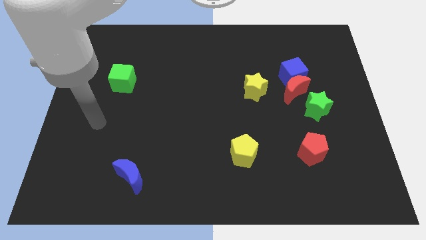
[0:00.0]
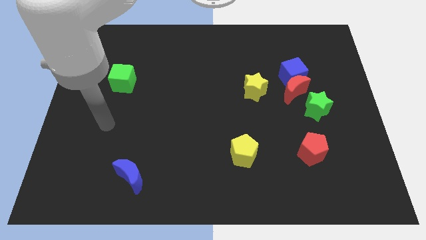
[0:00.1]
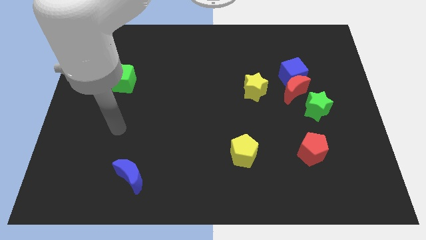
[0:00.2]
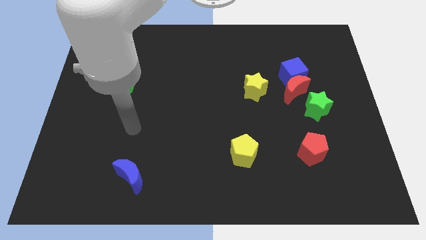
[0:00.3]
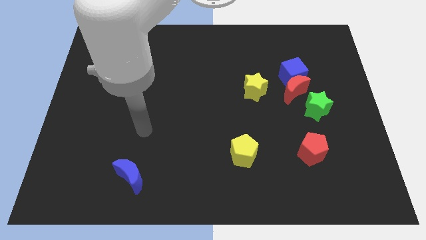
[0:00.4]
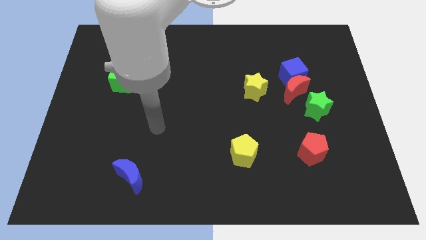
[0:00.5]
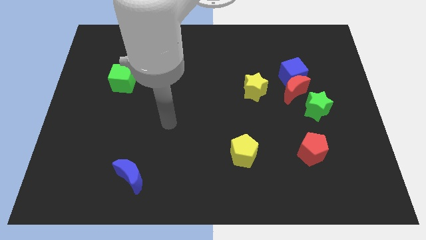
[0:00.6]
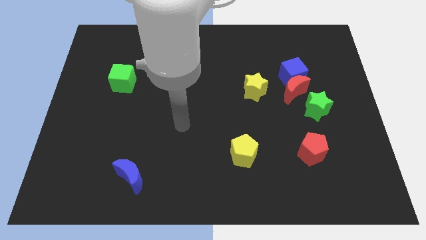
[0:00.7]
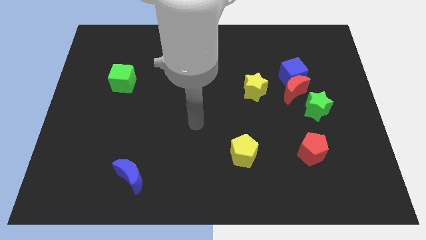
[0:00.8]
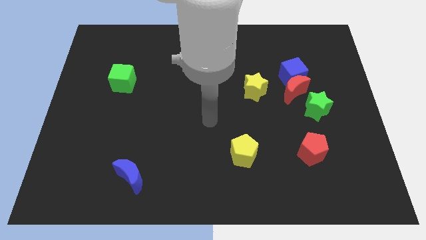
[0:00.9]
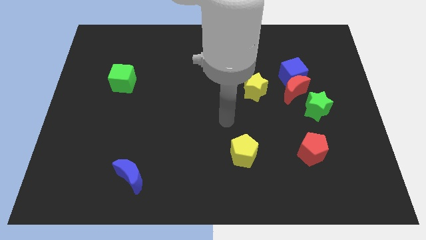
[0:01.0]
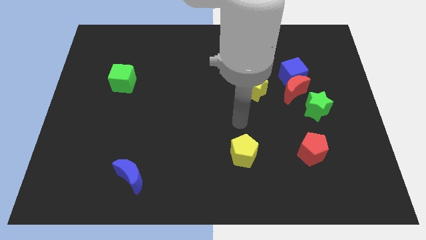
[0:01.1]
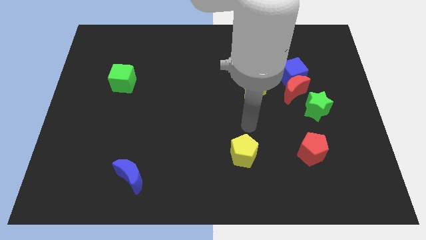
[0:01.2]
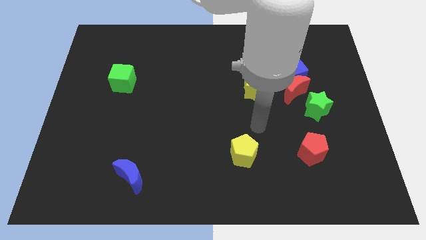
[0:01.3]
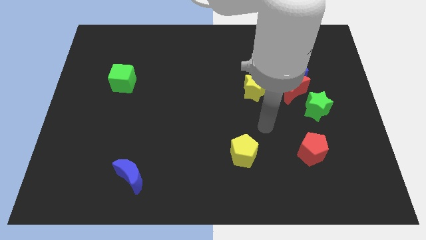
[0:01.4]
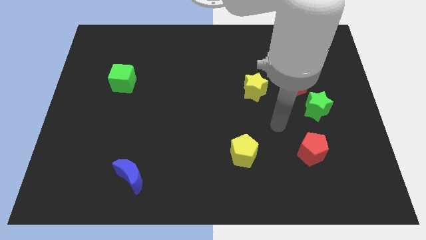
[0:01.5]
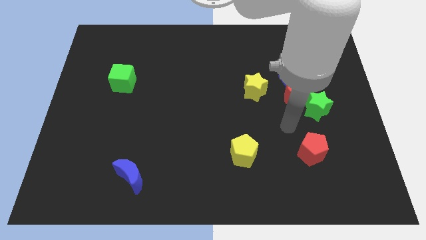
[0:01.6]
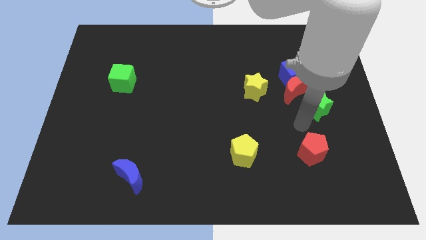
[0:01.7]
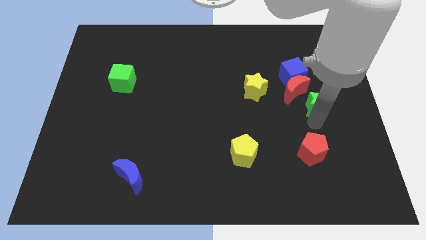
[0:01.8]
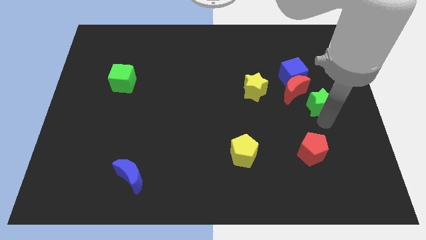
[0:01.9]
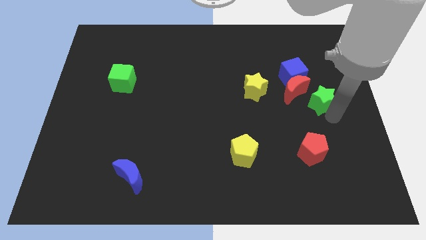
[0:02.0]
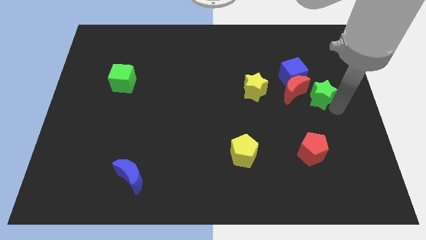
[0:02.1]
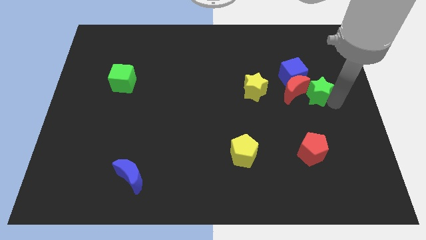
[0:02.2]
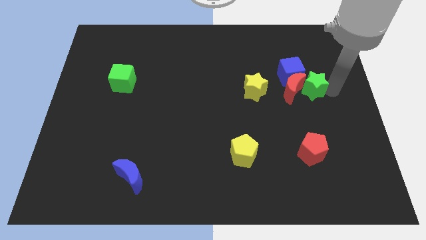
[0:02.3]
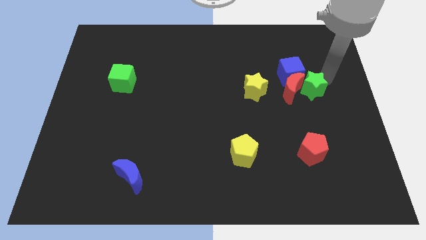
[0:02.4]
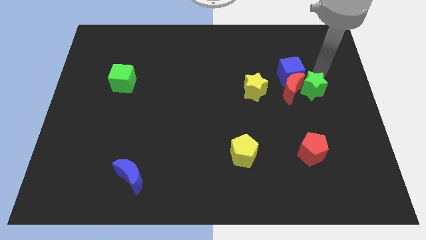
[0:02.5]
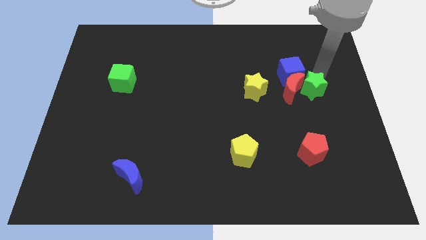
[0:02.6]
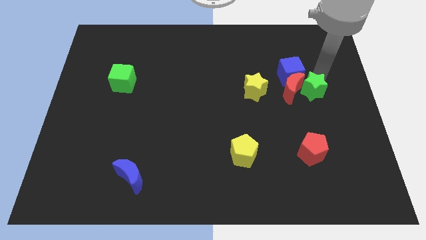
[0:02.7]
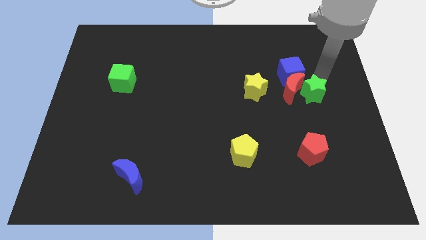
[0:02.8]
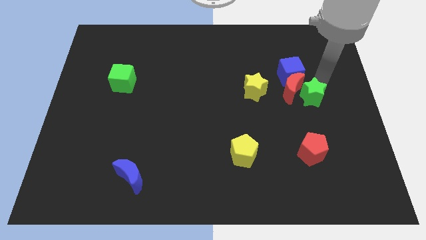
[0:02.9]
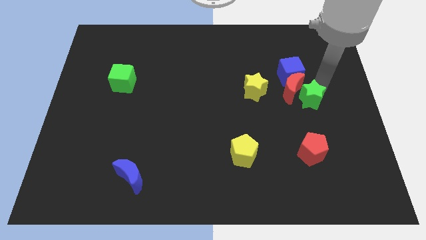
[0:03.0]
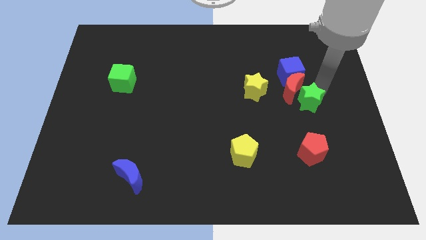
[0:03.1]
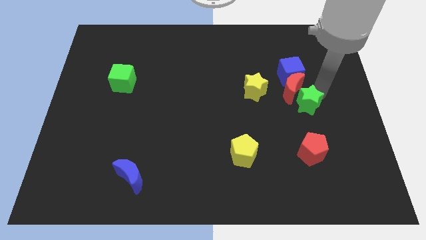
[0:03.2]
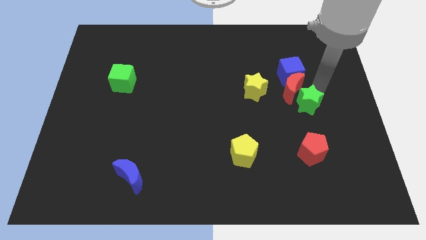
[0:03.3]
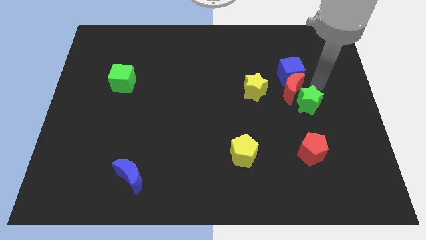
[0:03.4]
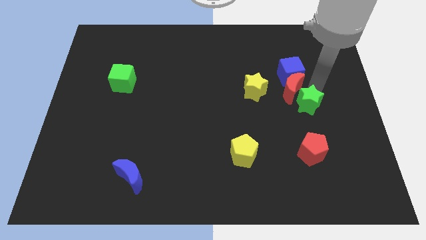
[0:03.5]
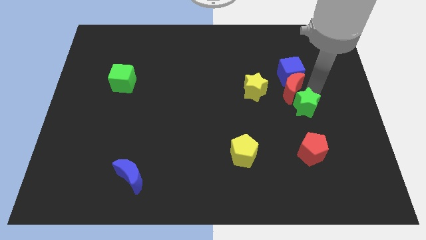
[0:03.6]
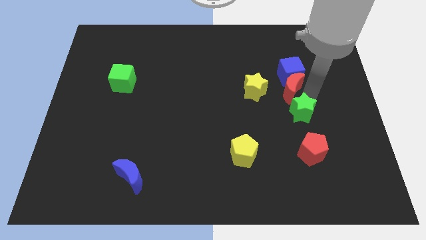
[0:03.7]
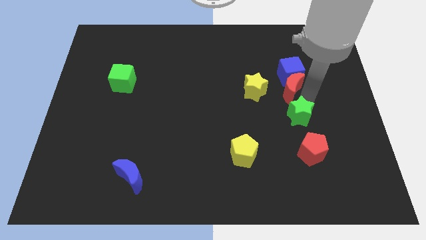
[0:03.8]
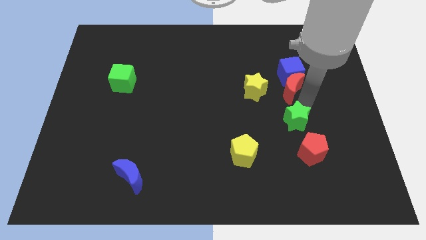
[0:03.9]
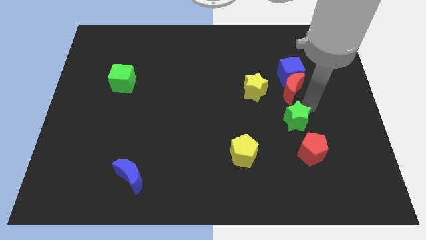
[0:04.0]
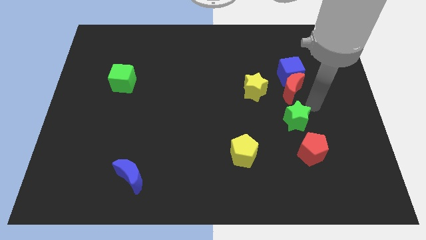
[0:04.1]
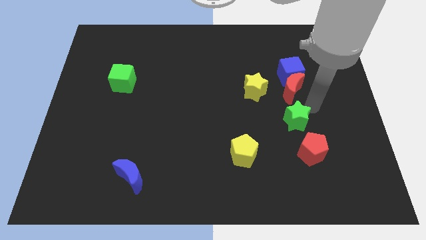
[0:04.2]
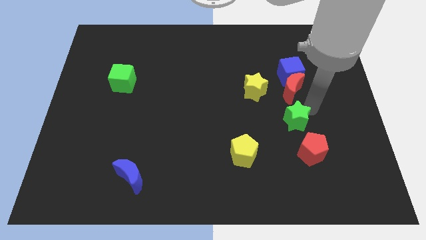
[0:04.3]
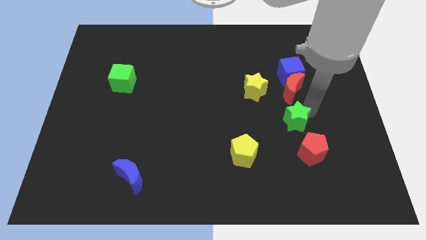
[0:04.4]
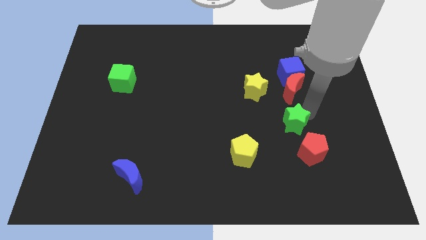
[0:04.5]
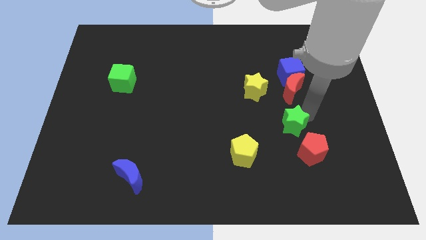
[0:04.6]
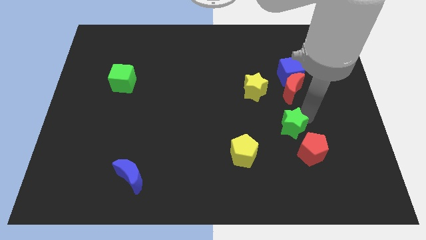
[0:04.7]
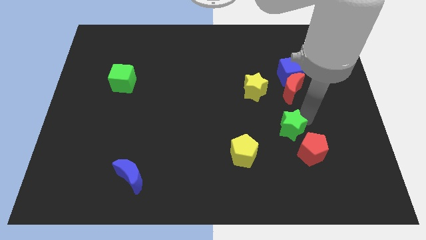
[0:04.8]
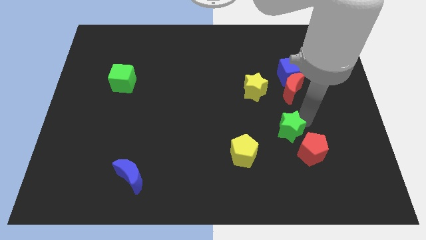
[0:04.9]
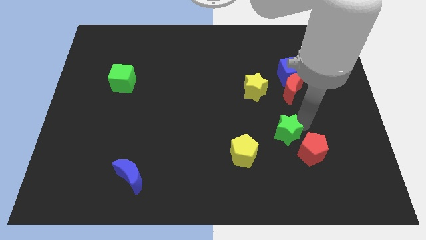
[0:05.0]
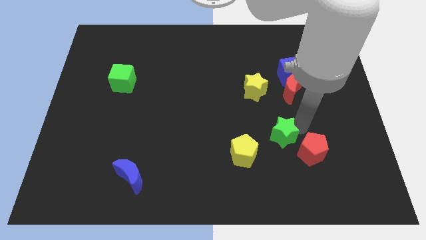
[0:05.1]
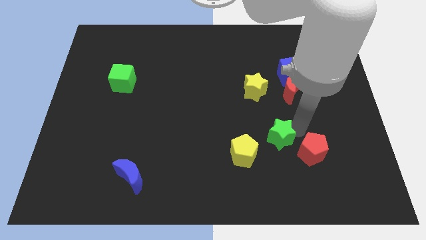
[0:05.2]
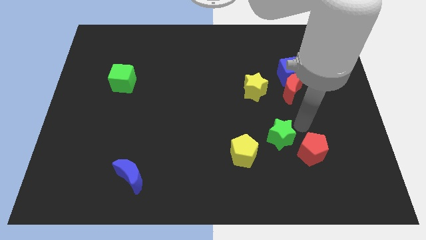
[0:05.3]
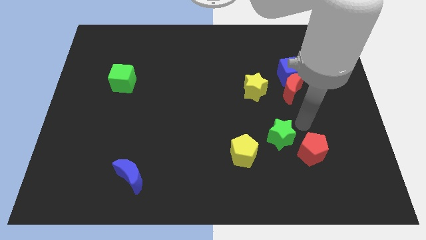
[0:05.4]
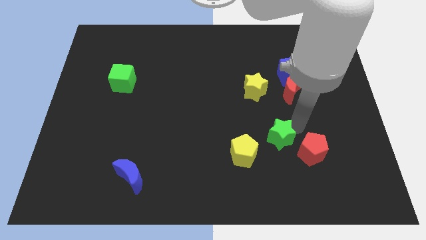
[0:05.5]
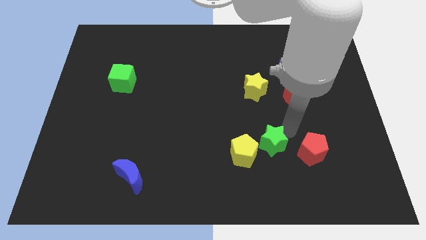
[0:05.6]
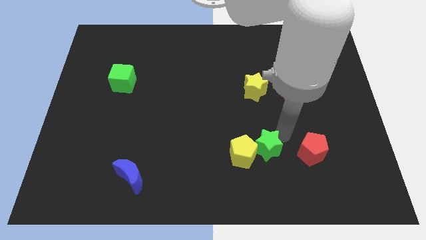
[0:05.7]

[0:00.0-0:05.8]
push the green star towards the yellow pentagon

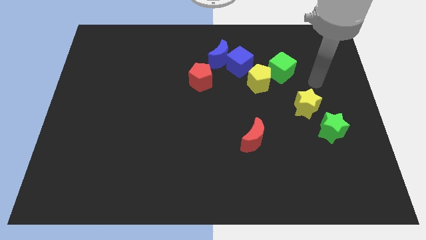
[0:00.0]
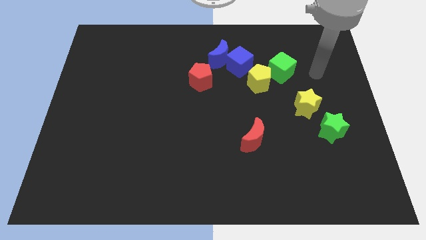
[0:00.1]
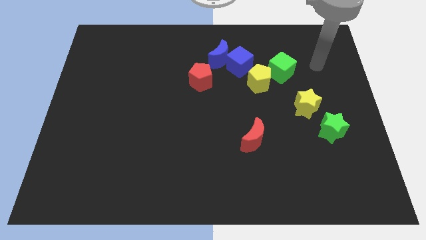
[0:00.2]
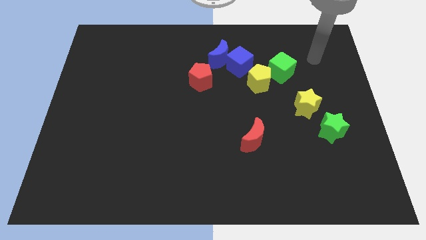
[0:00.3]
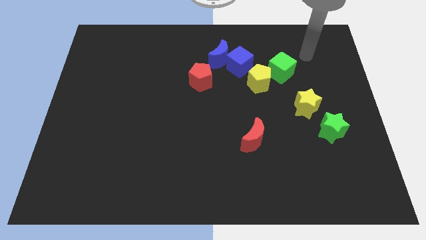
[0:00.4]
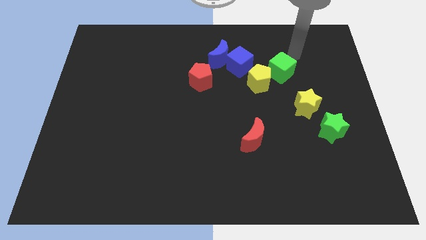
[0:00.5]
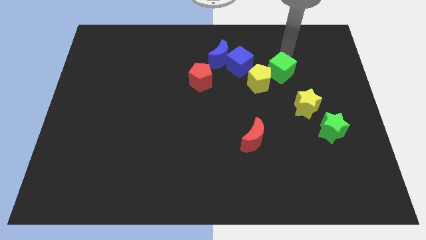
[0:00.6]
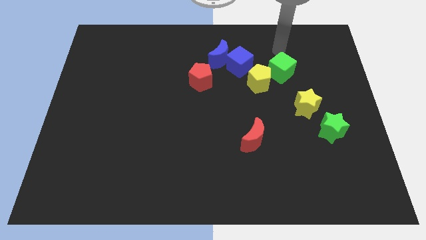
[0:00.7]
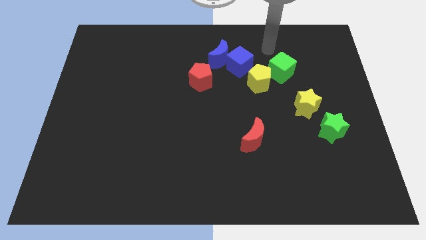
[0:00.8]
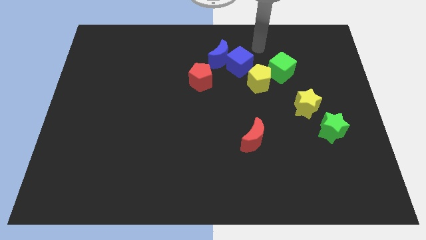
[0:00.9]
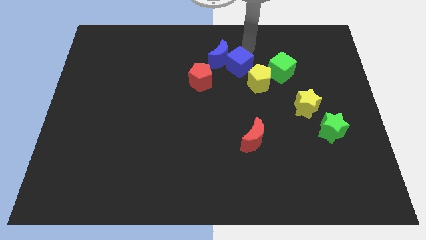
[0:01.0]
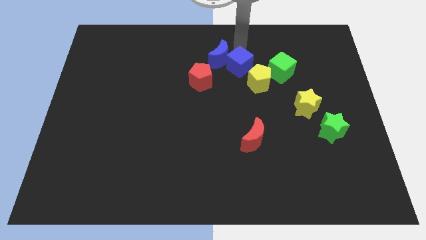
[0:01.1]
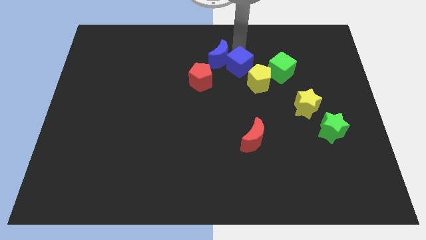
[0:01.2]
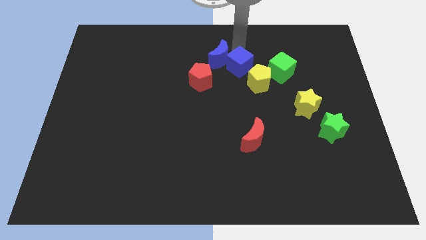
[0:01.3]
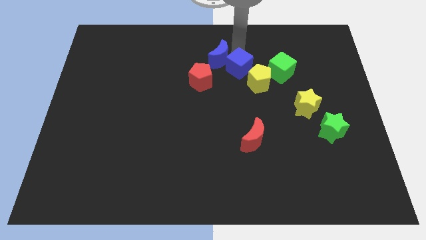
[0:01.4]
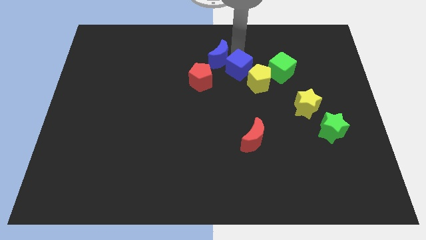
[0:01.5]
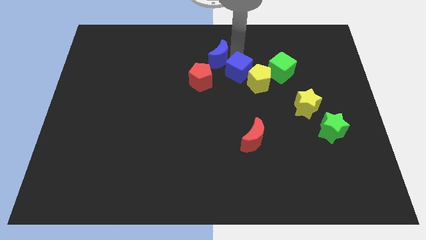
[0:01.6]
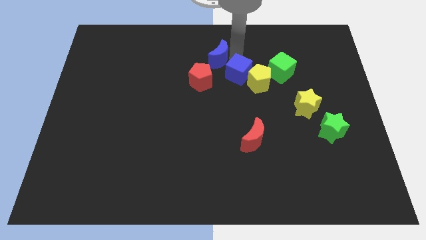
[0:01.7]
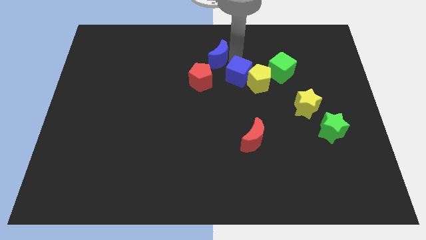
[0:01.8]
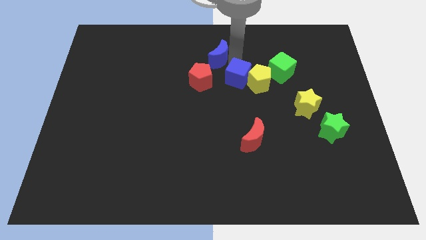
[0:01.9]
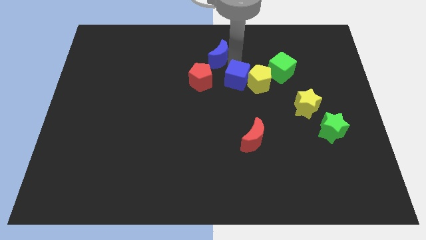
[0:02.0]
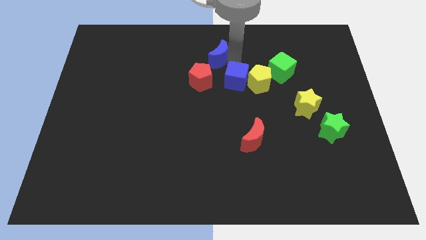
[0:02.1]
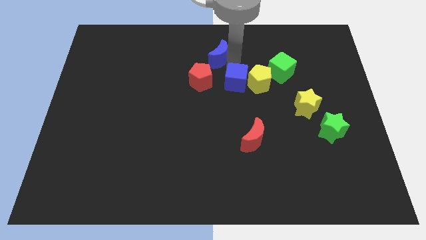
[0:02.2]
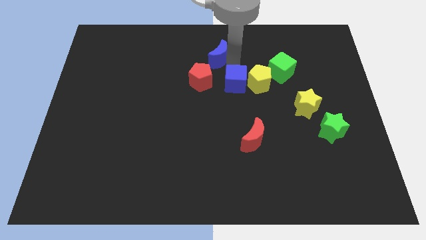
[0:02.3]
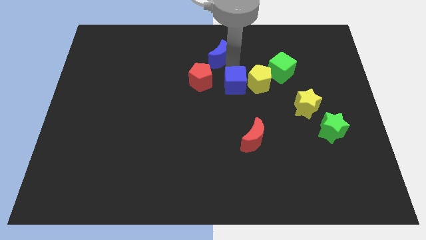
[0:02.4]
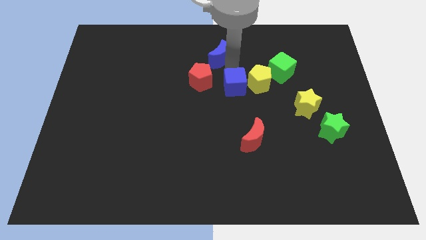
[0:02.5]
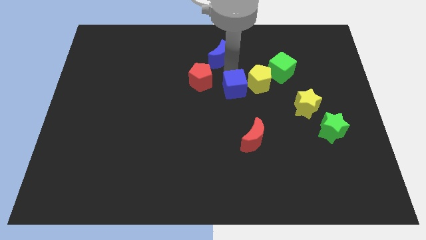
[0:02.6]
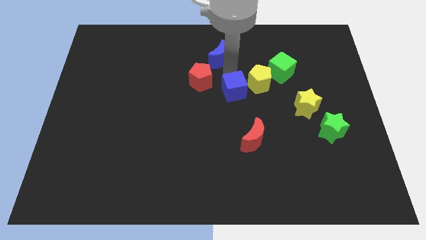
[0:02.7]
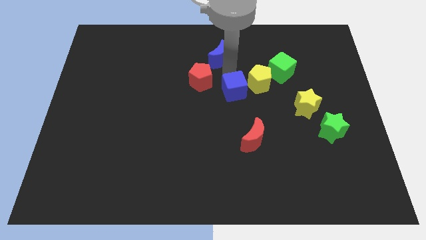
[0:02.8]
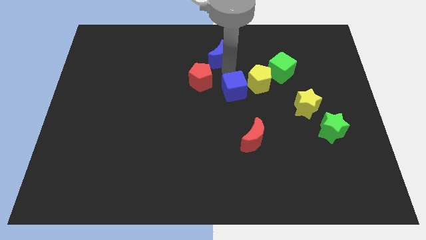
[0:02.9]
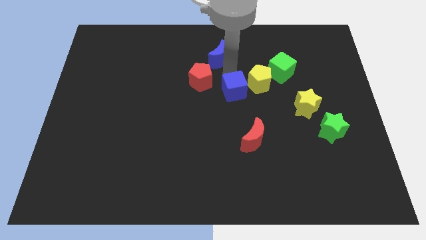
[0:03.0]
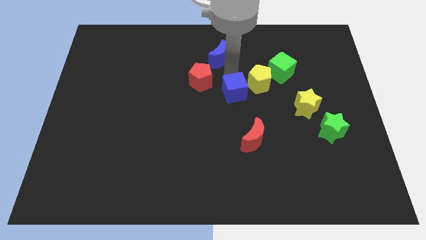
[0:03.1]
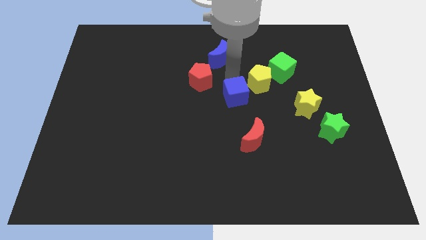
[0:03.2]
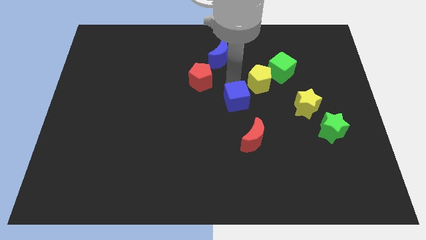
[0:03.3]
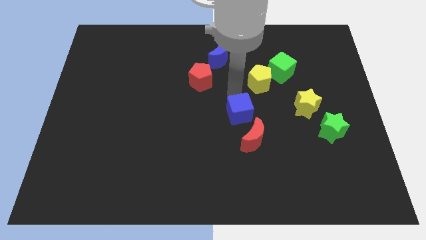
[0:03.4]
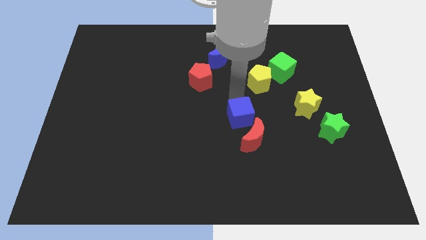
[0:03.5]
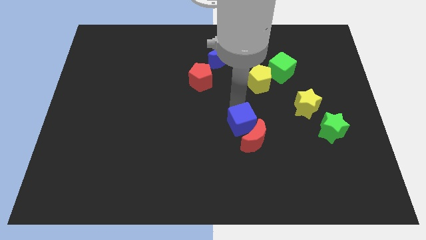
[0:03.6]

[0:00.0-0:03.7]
slide the blue cube towards the red moon
